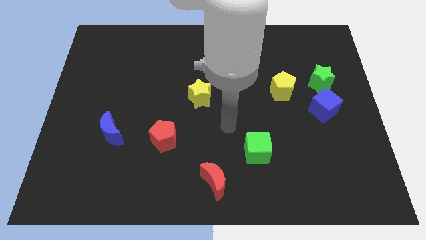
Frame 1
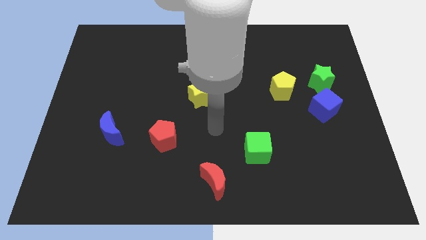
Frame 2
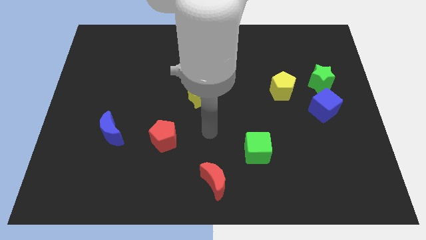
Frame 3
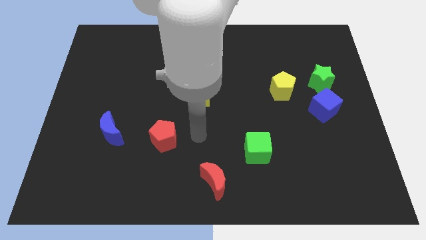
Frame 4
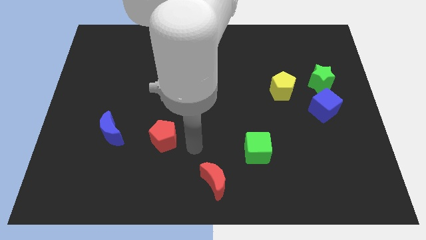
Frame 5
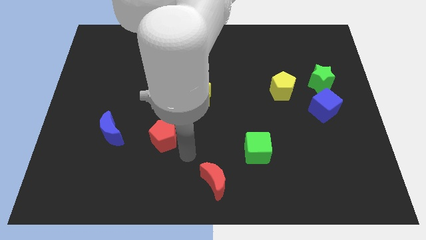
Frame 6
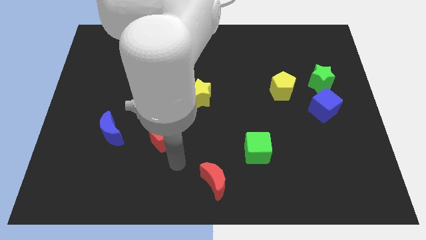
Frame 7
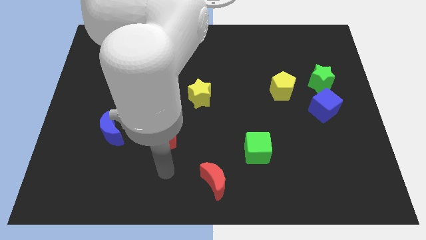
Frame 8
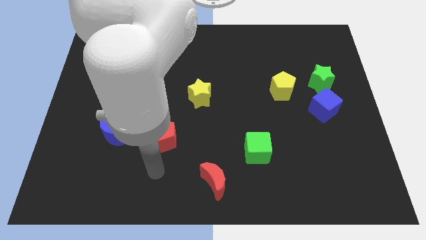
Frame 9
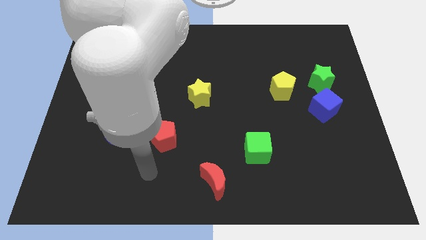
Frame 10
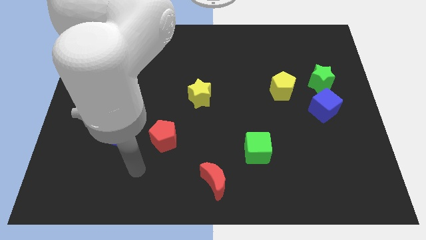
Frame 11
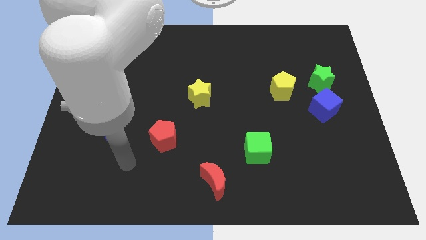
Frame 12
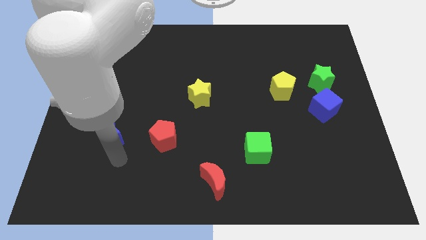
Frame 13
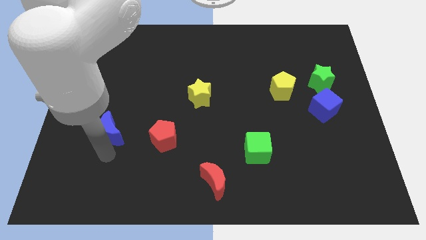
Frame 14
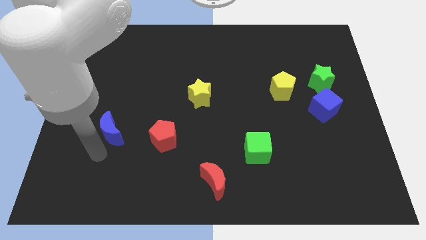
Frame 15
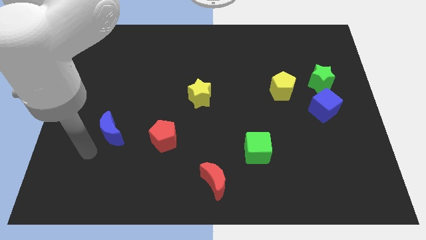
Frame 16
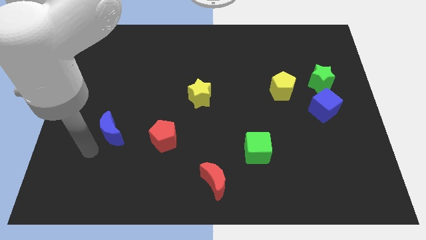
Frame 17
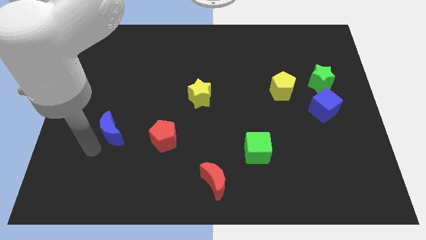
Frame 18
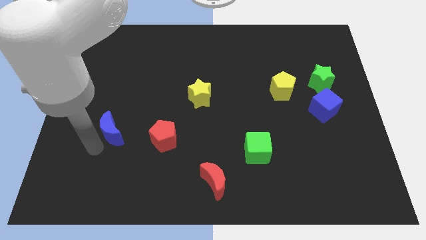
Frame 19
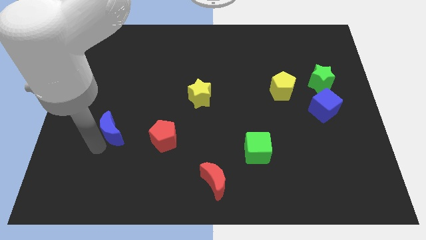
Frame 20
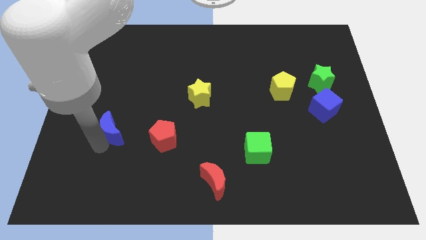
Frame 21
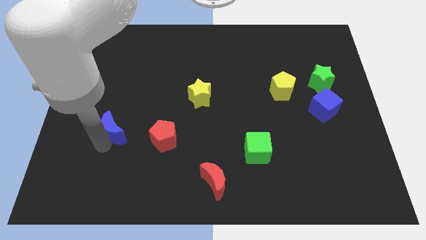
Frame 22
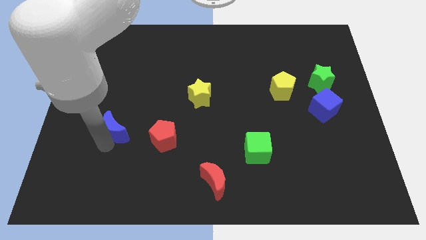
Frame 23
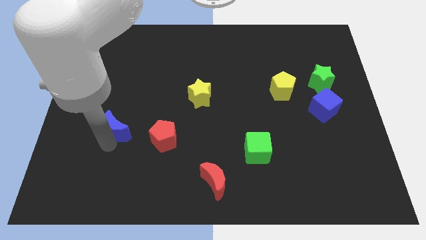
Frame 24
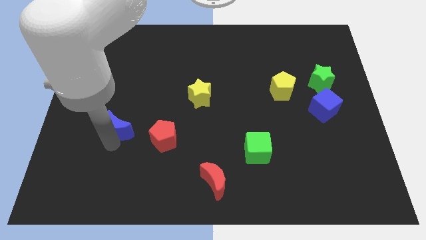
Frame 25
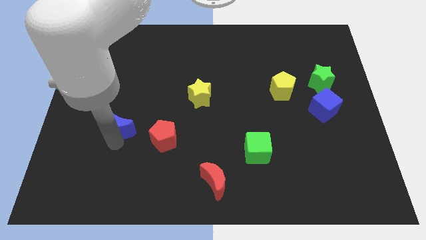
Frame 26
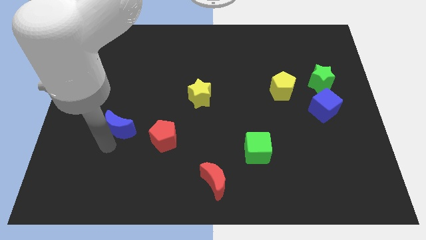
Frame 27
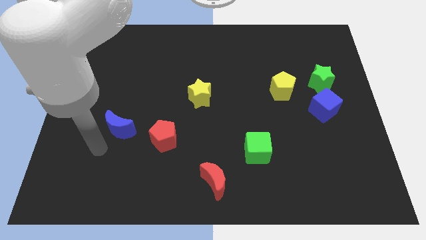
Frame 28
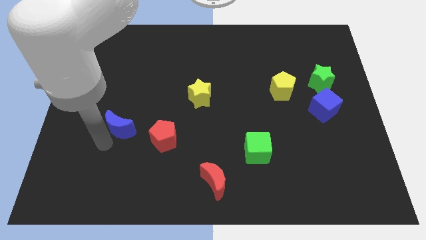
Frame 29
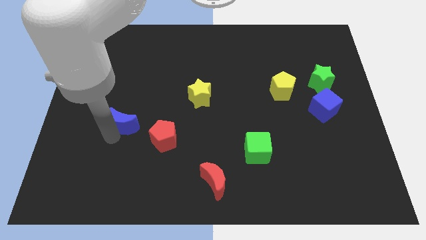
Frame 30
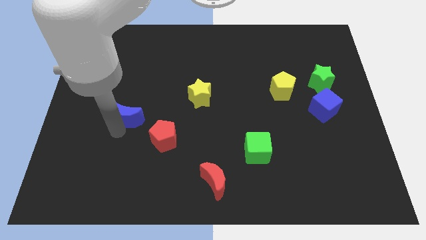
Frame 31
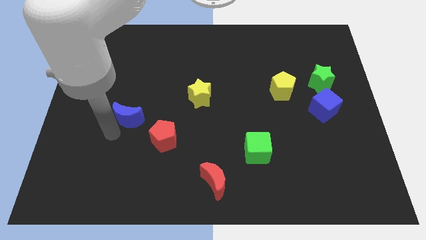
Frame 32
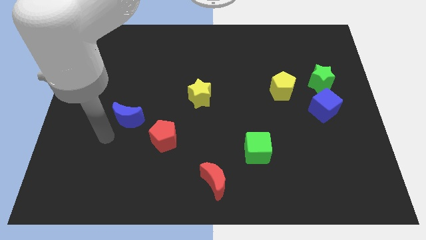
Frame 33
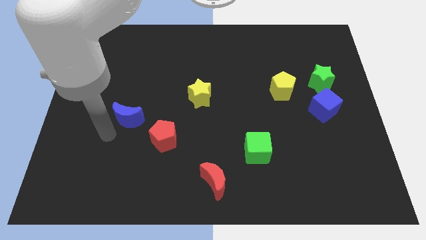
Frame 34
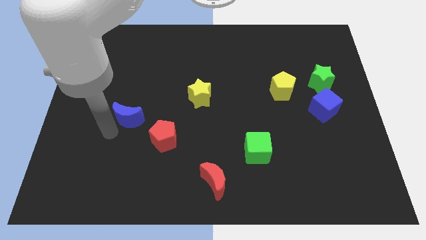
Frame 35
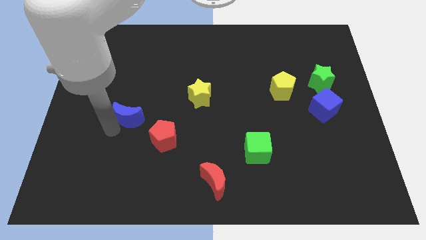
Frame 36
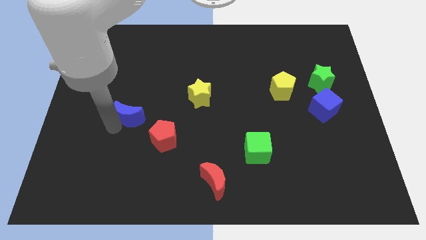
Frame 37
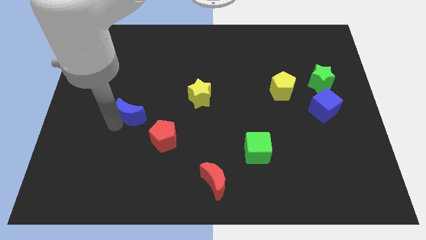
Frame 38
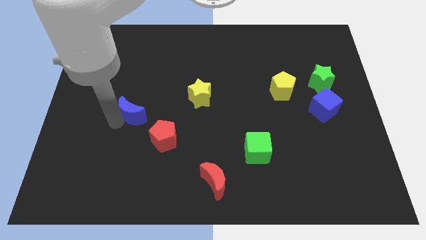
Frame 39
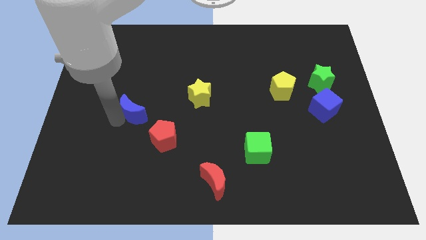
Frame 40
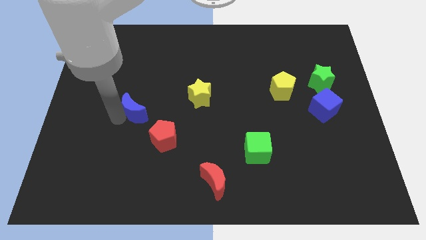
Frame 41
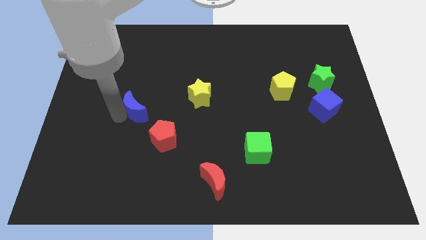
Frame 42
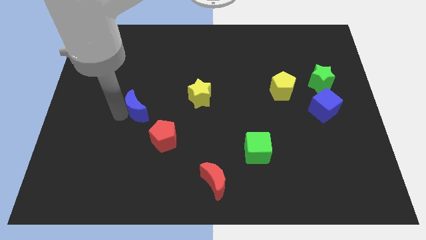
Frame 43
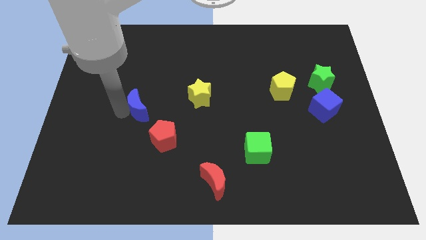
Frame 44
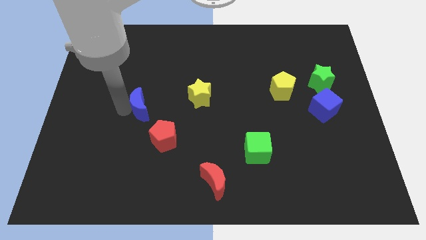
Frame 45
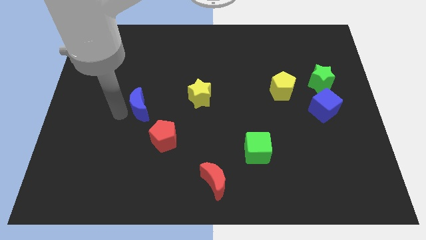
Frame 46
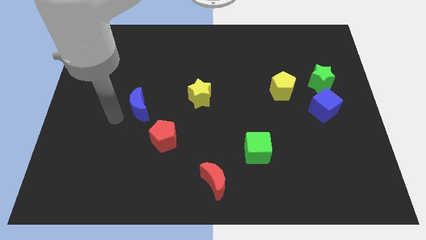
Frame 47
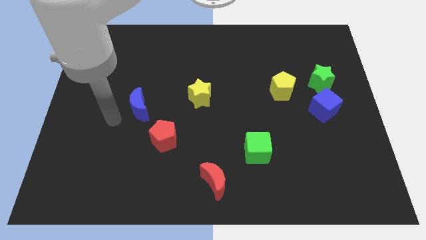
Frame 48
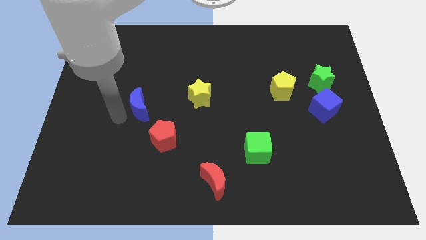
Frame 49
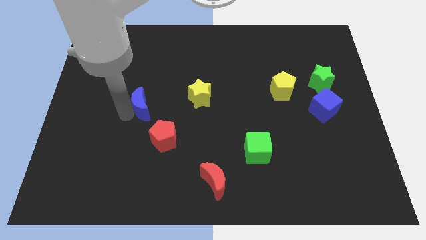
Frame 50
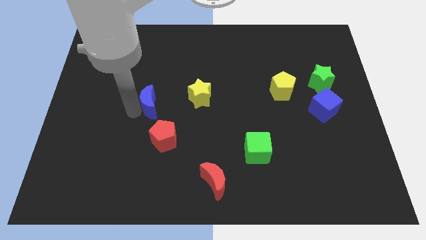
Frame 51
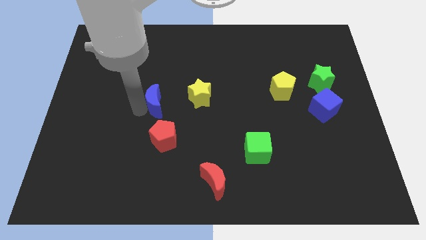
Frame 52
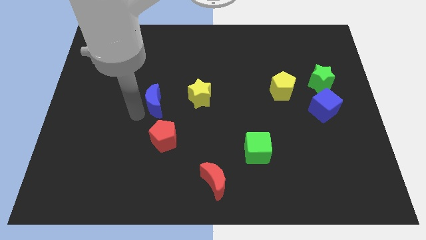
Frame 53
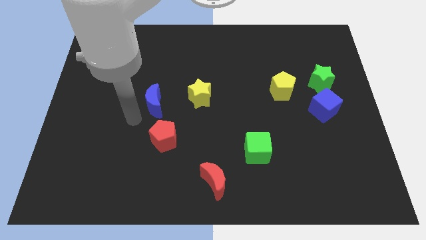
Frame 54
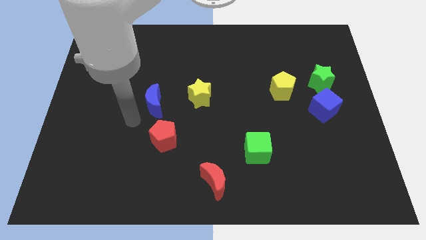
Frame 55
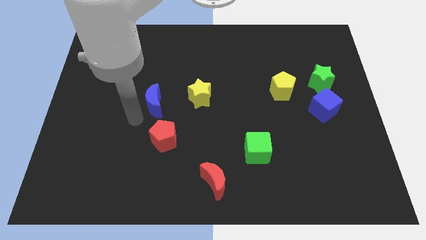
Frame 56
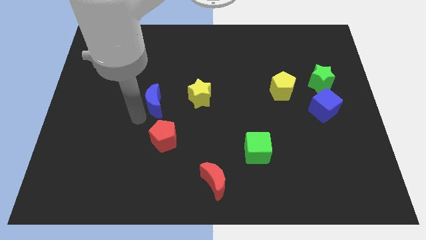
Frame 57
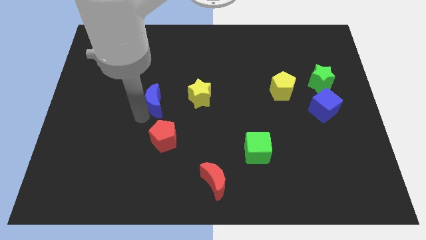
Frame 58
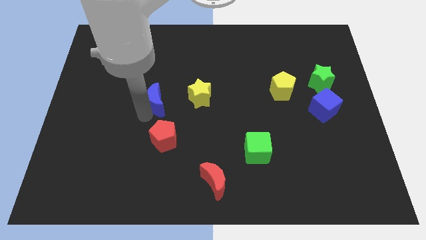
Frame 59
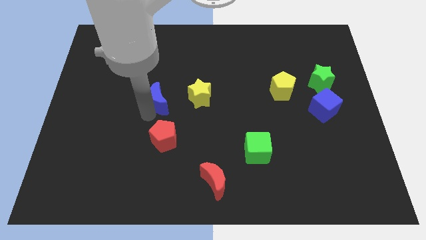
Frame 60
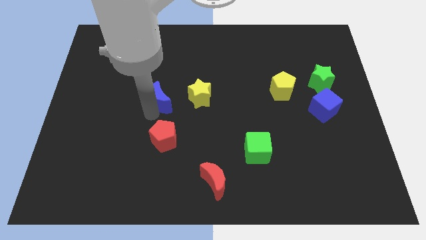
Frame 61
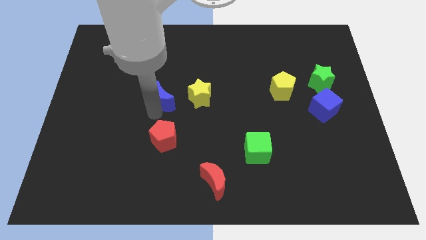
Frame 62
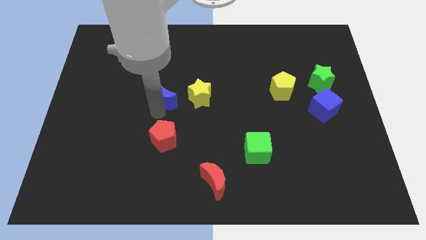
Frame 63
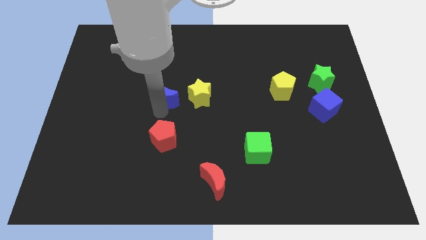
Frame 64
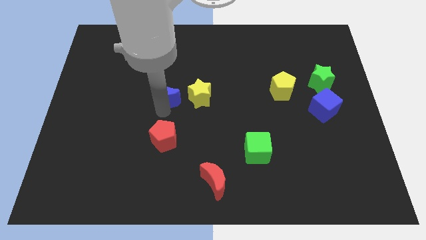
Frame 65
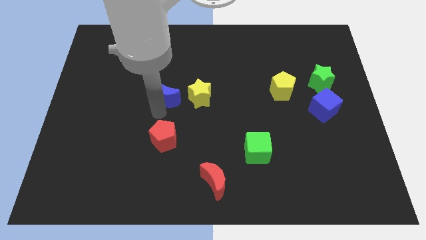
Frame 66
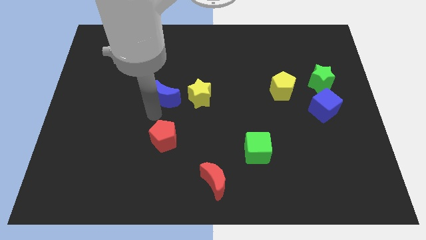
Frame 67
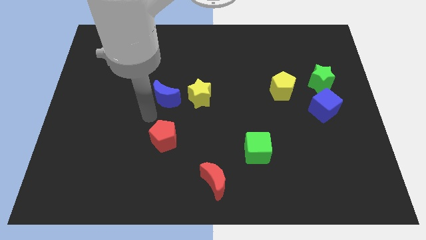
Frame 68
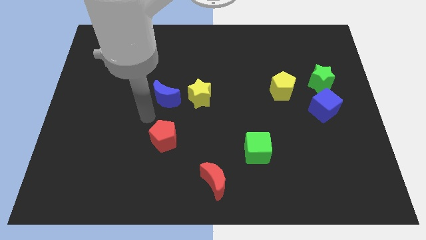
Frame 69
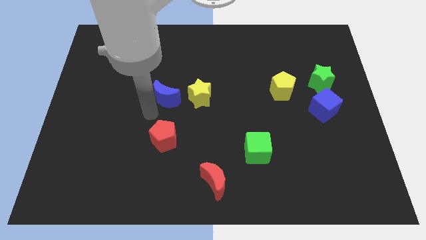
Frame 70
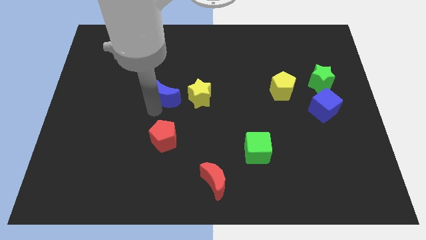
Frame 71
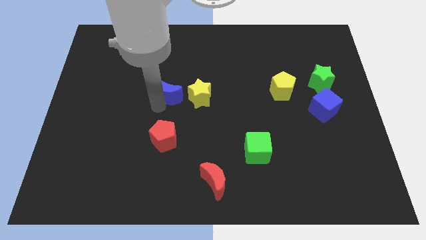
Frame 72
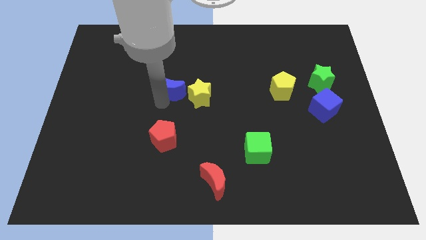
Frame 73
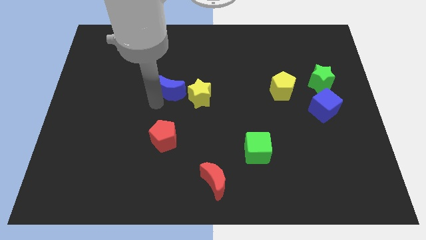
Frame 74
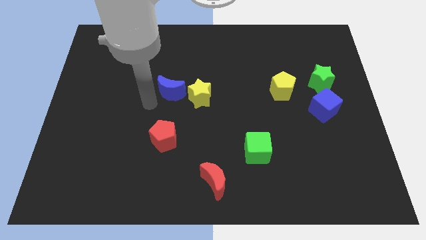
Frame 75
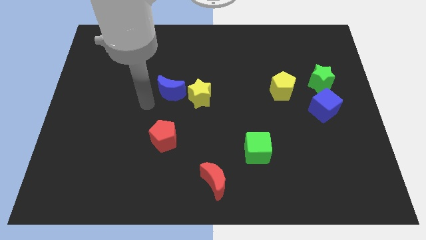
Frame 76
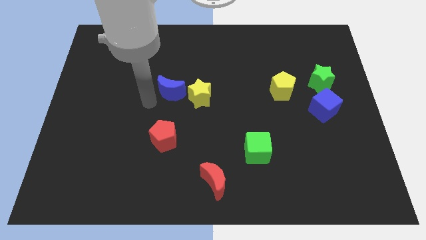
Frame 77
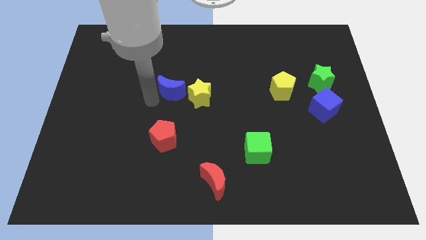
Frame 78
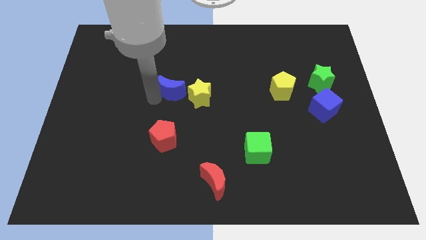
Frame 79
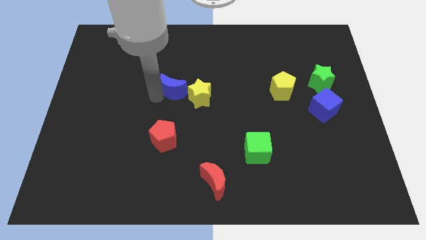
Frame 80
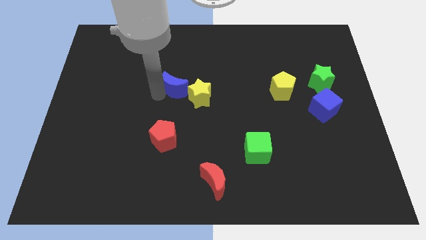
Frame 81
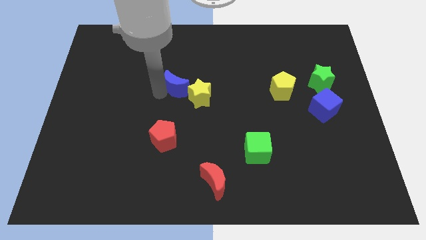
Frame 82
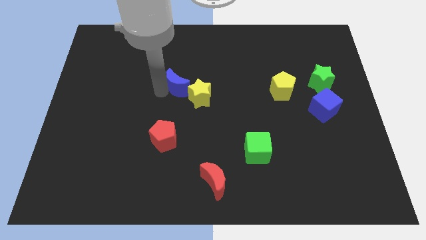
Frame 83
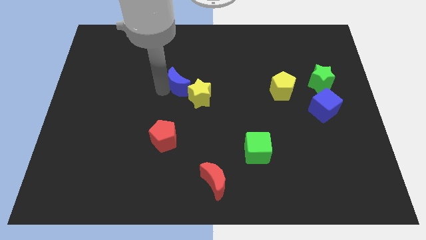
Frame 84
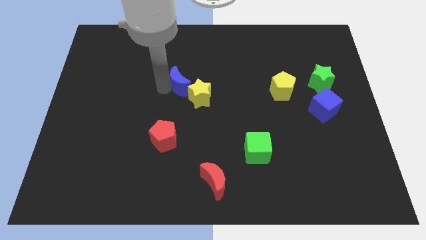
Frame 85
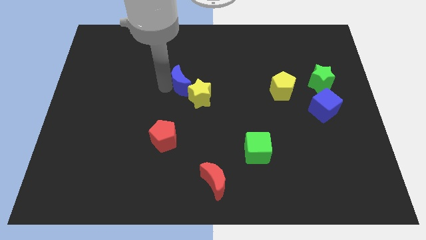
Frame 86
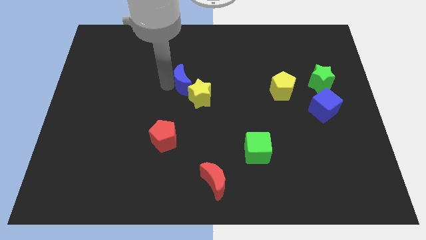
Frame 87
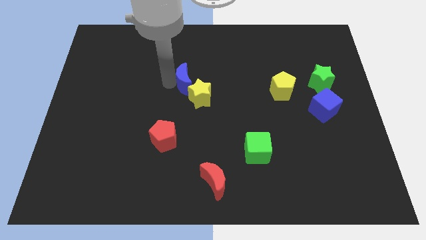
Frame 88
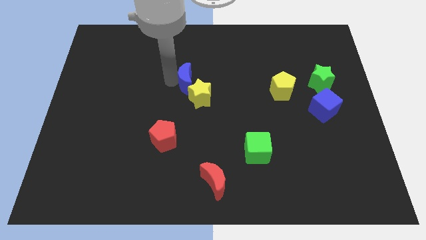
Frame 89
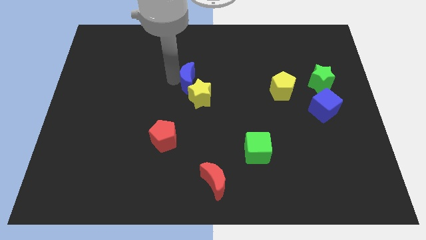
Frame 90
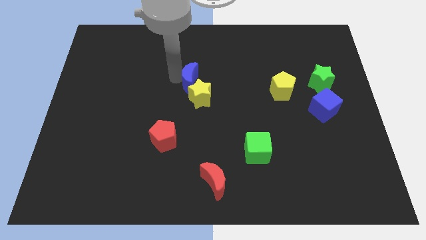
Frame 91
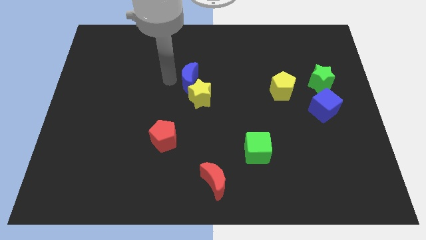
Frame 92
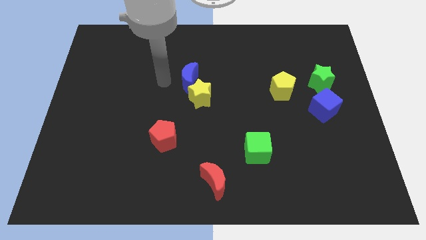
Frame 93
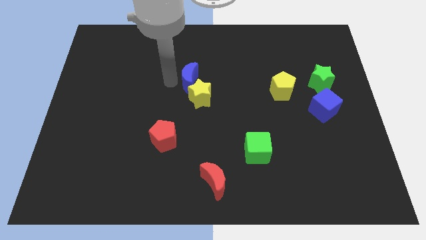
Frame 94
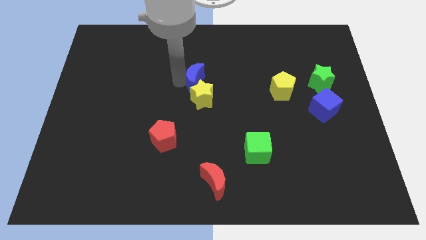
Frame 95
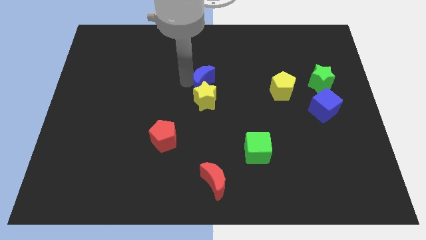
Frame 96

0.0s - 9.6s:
move the blue moon to the top right side of the yellow star
